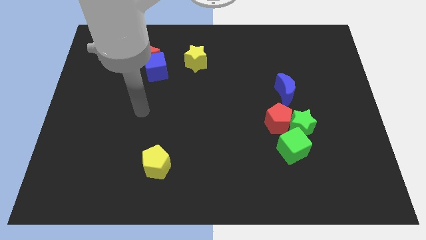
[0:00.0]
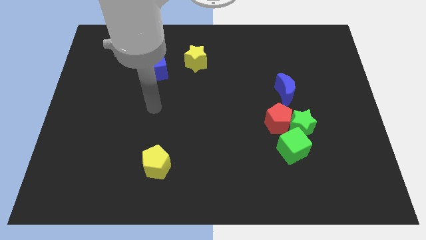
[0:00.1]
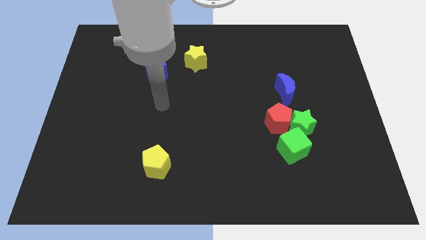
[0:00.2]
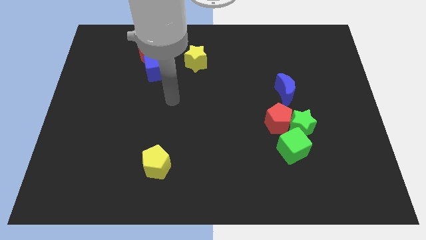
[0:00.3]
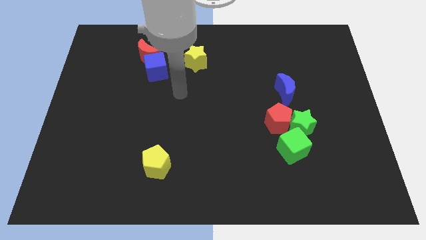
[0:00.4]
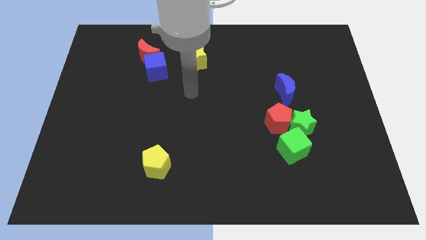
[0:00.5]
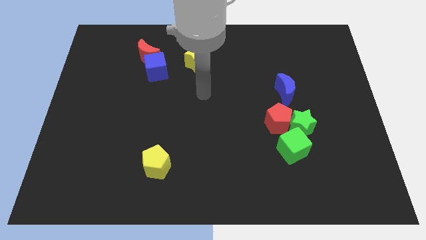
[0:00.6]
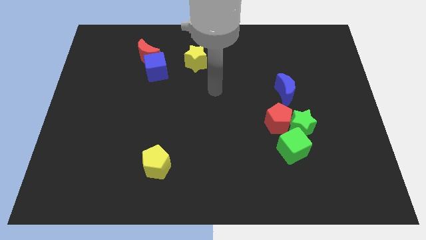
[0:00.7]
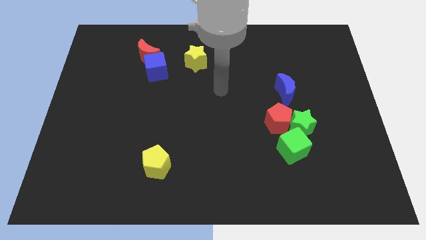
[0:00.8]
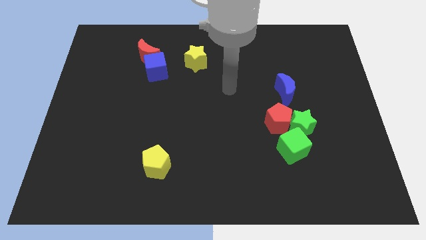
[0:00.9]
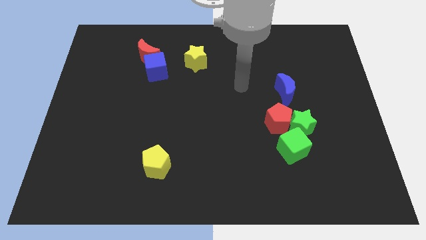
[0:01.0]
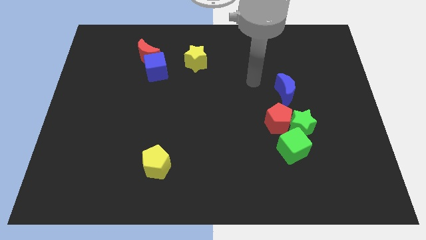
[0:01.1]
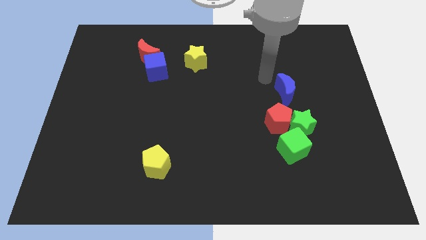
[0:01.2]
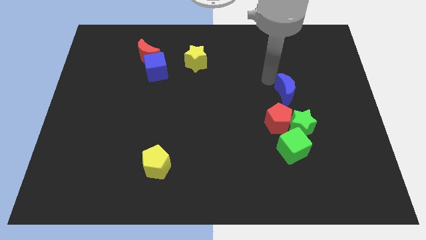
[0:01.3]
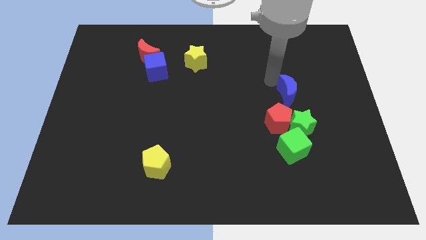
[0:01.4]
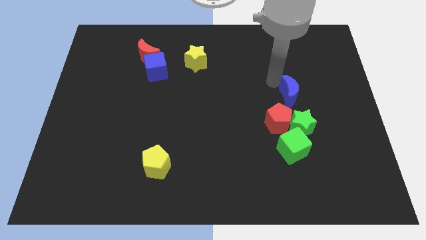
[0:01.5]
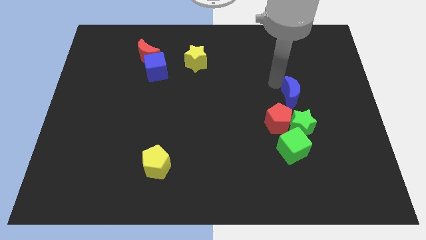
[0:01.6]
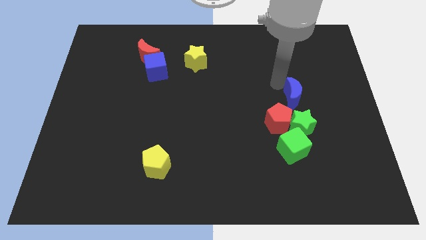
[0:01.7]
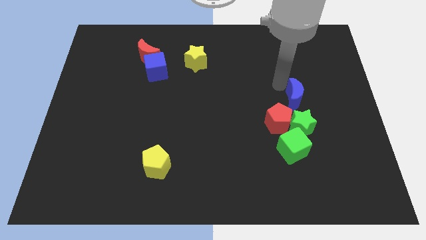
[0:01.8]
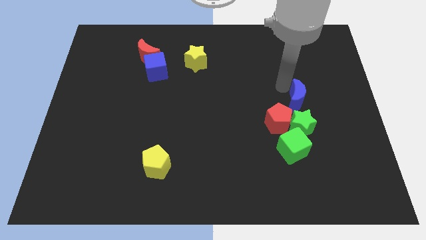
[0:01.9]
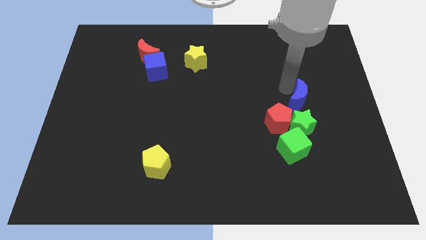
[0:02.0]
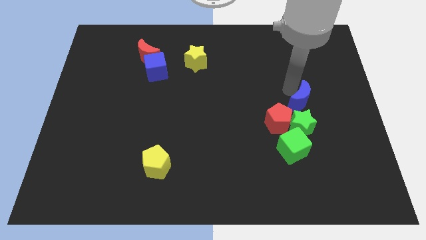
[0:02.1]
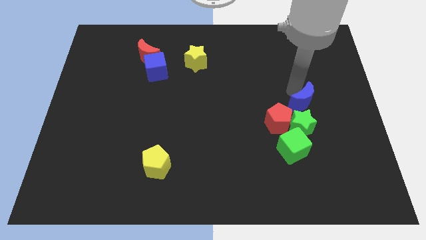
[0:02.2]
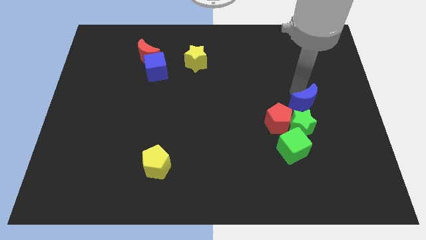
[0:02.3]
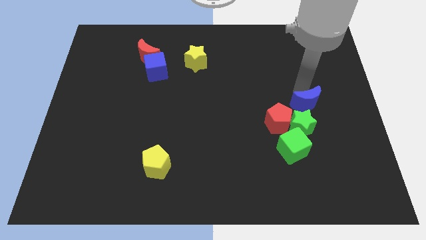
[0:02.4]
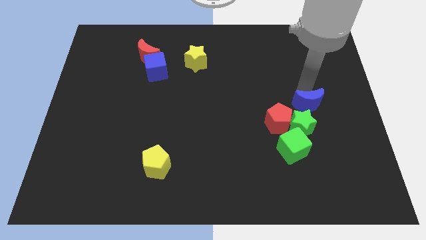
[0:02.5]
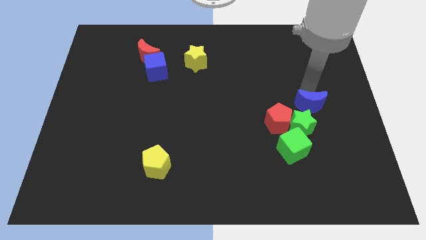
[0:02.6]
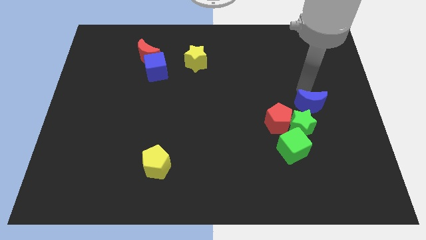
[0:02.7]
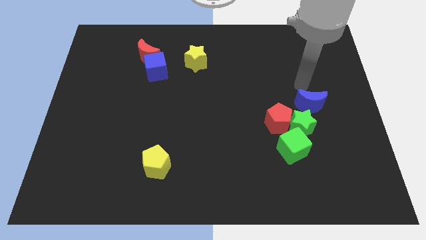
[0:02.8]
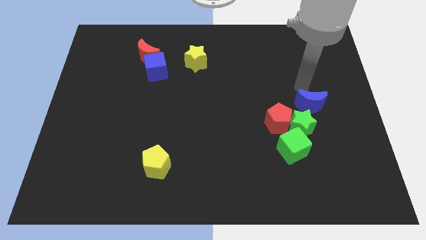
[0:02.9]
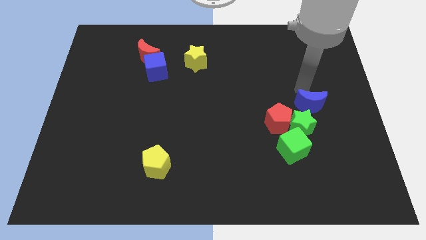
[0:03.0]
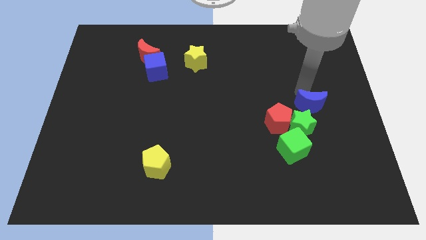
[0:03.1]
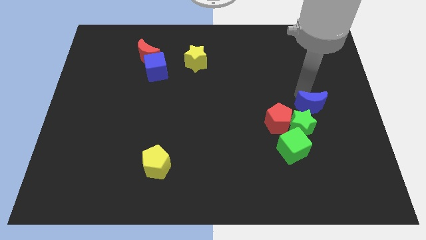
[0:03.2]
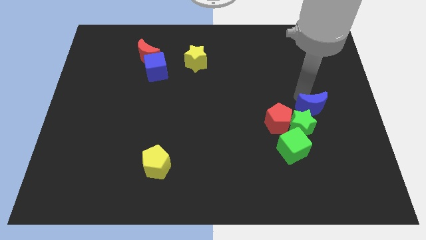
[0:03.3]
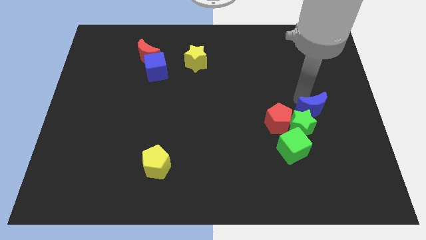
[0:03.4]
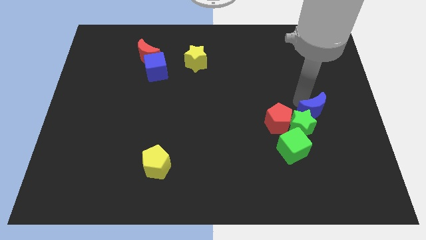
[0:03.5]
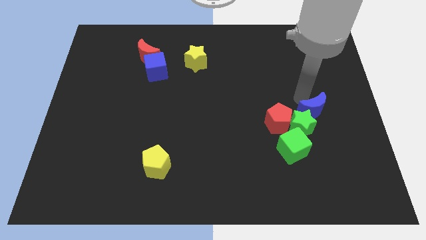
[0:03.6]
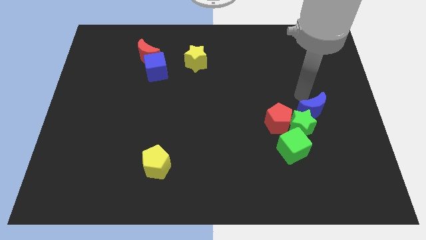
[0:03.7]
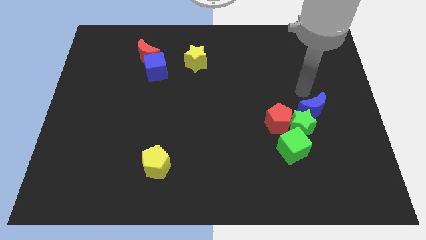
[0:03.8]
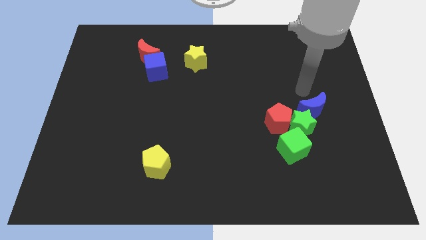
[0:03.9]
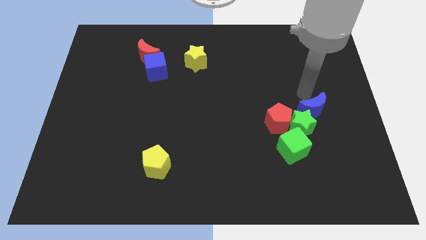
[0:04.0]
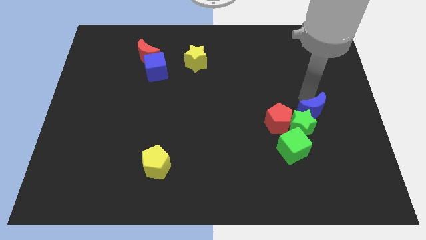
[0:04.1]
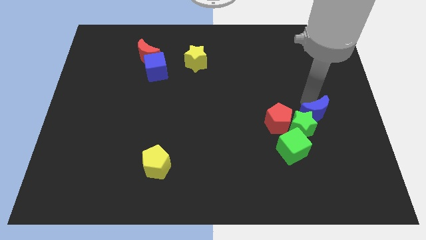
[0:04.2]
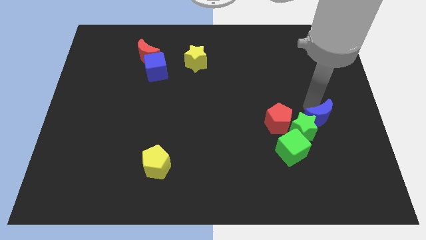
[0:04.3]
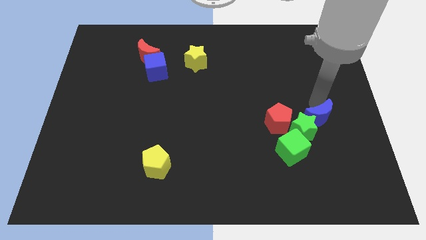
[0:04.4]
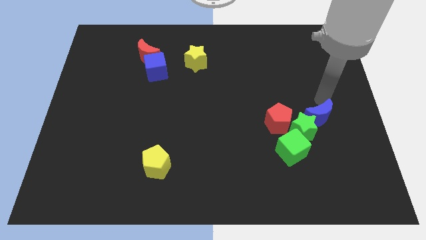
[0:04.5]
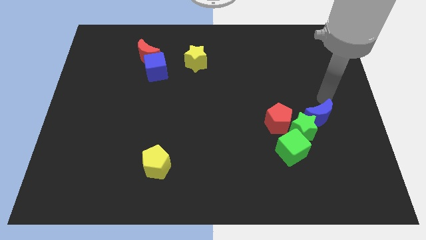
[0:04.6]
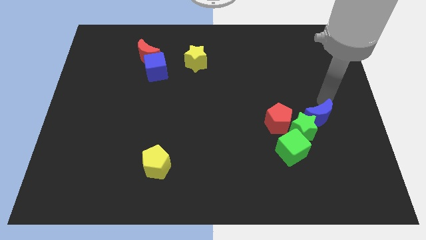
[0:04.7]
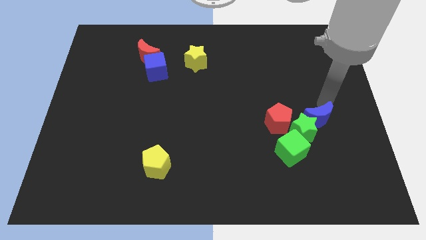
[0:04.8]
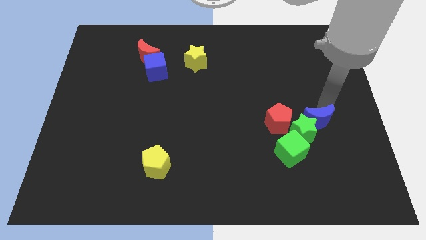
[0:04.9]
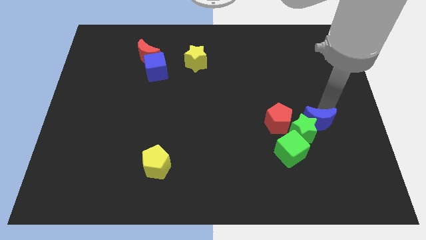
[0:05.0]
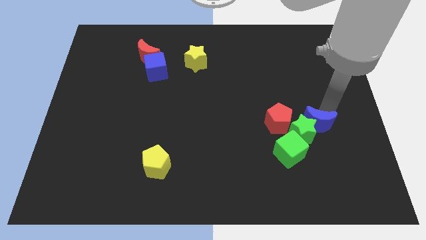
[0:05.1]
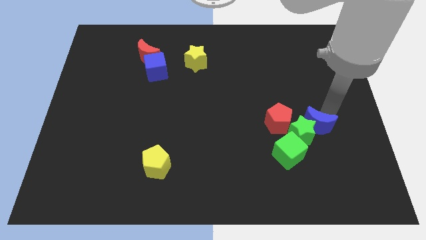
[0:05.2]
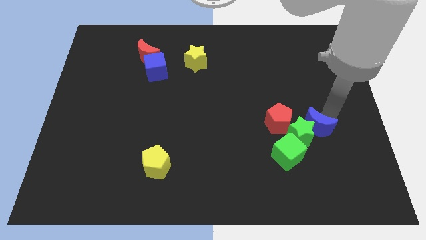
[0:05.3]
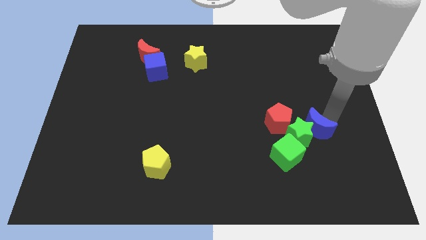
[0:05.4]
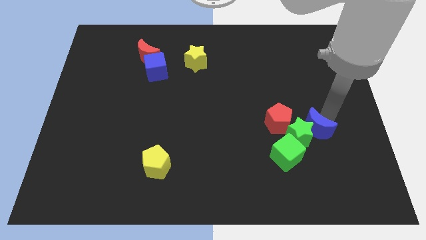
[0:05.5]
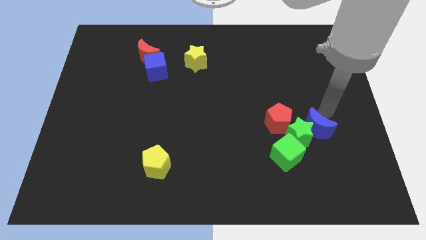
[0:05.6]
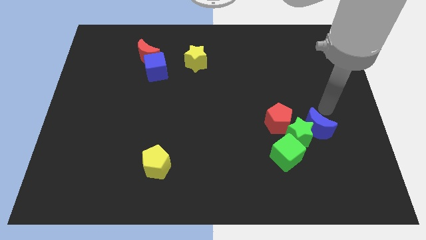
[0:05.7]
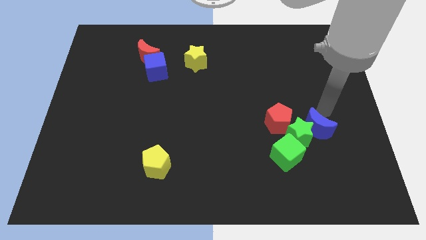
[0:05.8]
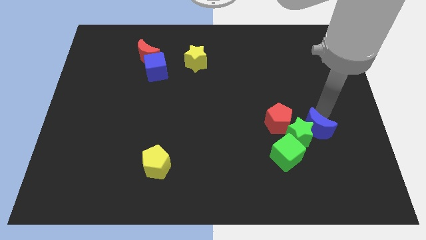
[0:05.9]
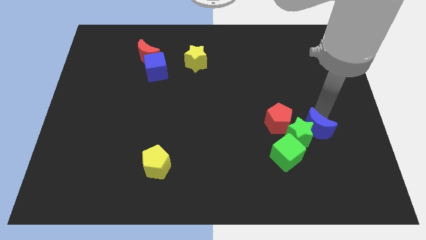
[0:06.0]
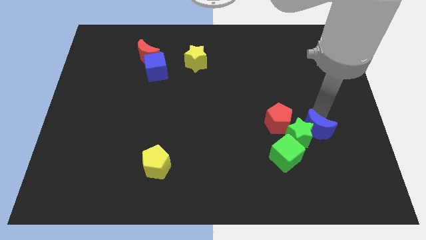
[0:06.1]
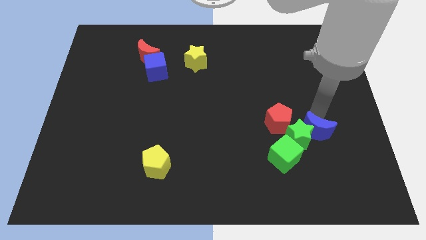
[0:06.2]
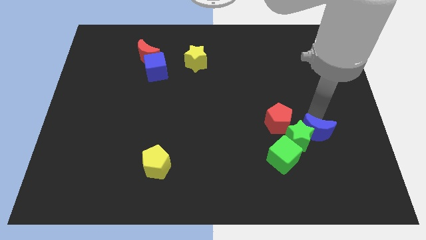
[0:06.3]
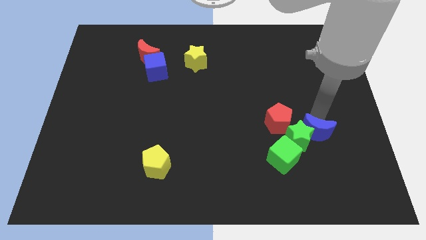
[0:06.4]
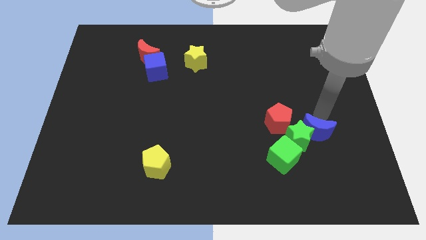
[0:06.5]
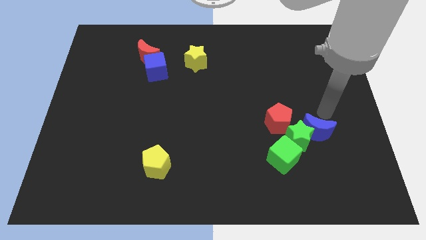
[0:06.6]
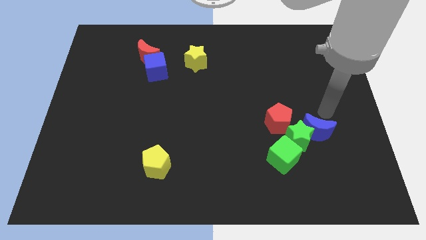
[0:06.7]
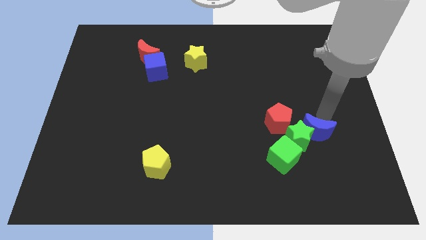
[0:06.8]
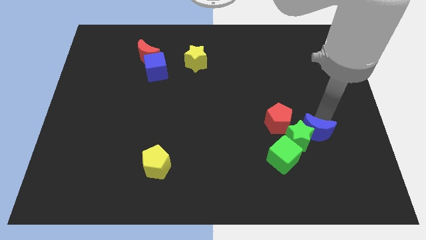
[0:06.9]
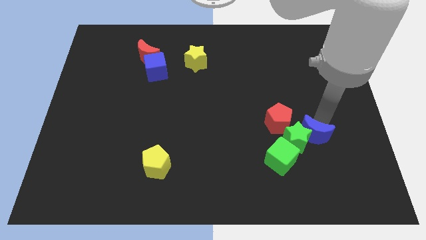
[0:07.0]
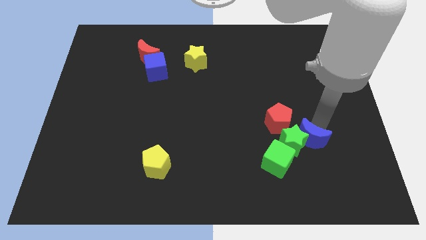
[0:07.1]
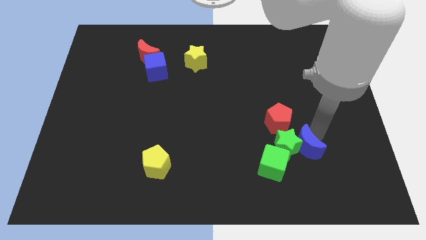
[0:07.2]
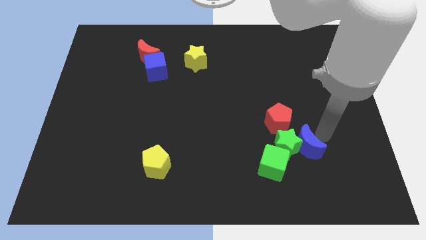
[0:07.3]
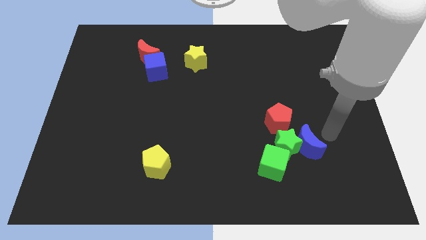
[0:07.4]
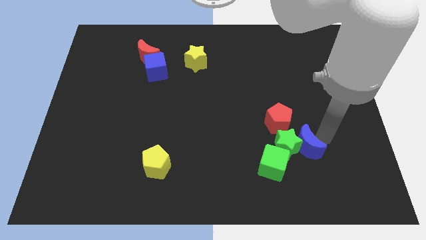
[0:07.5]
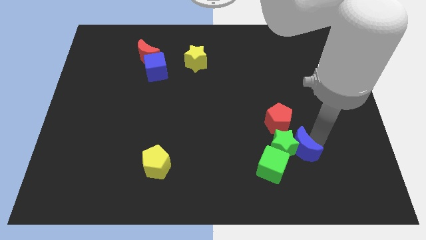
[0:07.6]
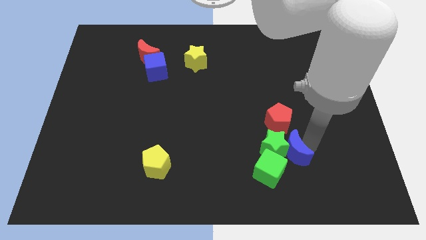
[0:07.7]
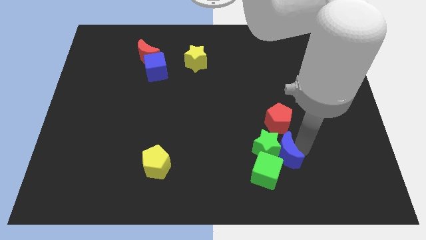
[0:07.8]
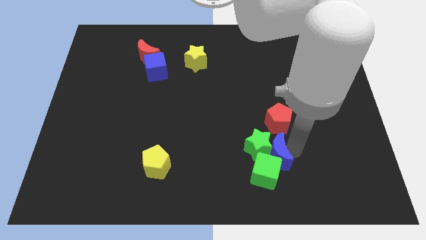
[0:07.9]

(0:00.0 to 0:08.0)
put the blue moon next to the green cube
